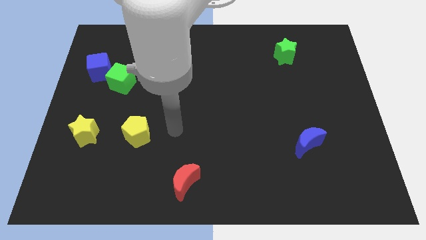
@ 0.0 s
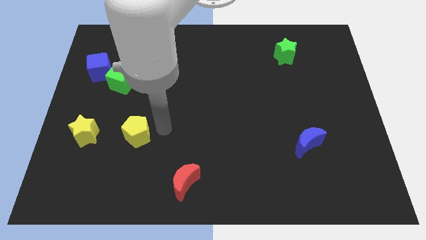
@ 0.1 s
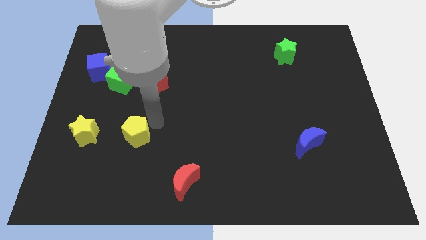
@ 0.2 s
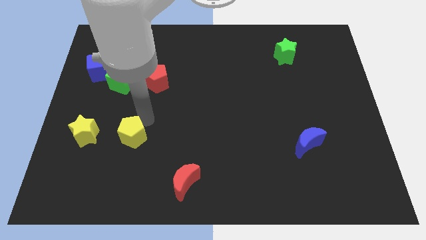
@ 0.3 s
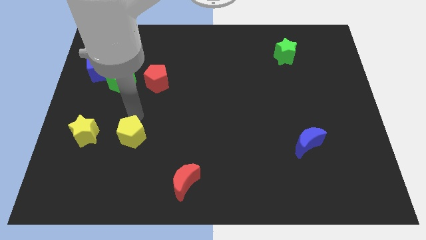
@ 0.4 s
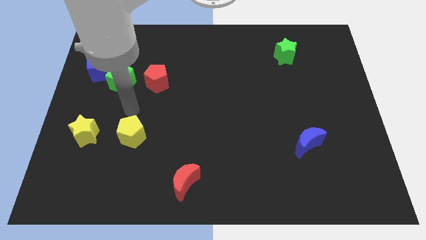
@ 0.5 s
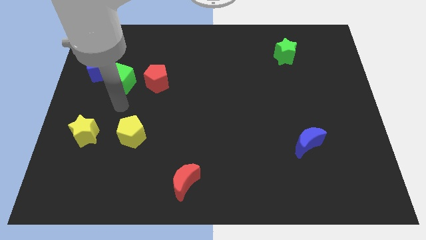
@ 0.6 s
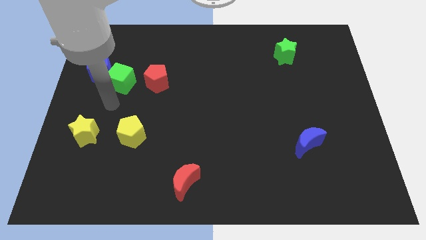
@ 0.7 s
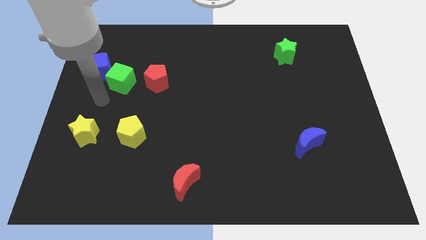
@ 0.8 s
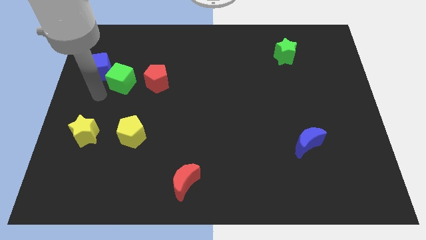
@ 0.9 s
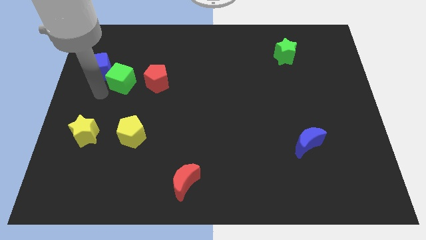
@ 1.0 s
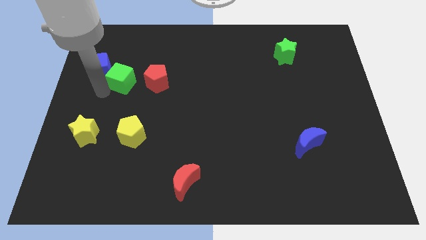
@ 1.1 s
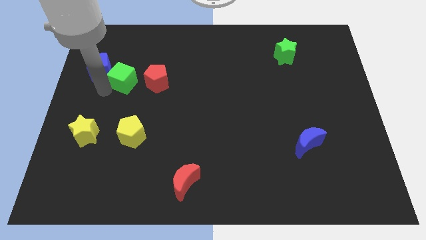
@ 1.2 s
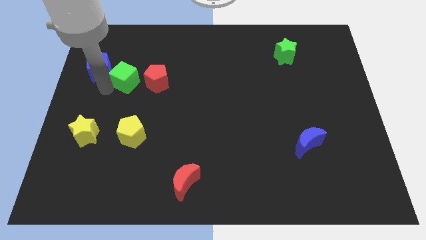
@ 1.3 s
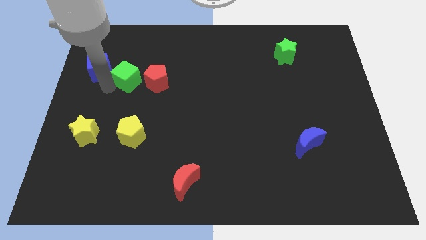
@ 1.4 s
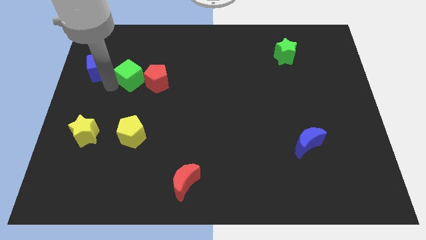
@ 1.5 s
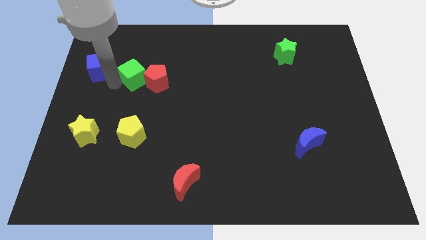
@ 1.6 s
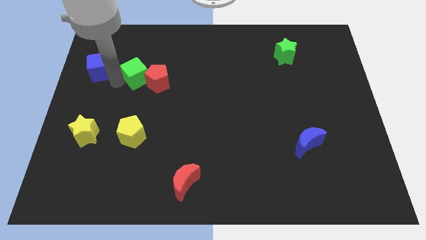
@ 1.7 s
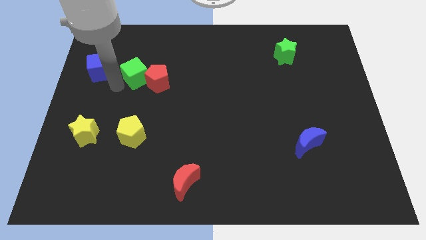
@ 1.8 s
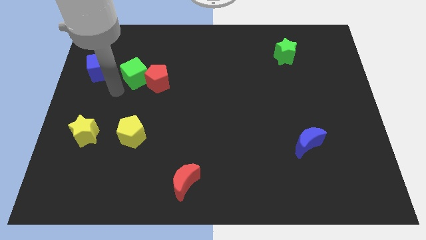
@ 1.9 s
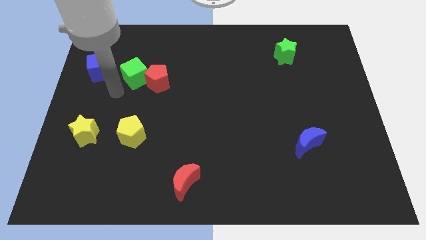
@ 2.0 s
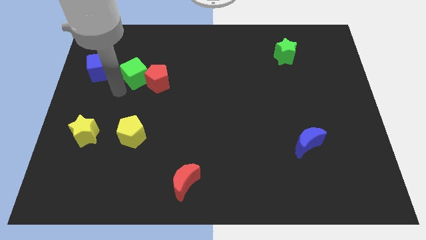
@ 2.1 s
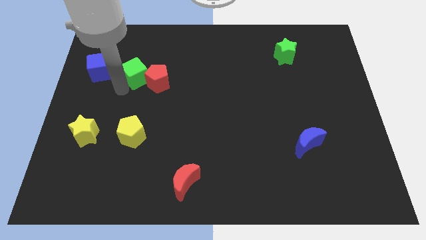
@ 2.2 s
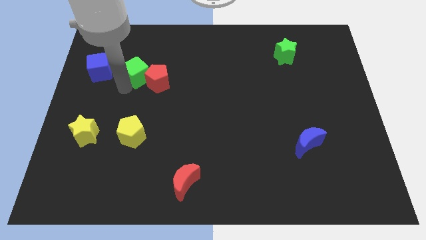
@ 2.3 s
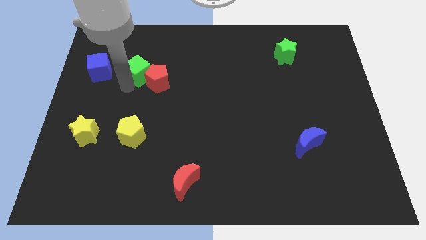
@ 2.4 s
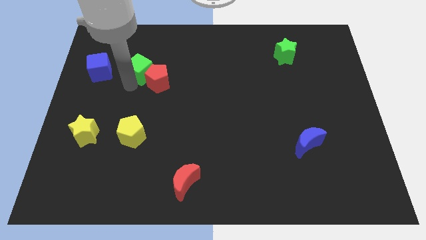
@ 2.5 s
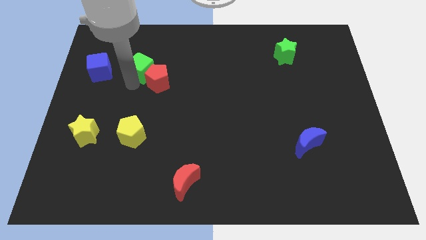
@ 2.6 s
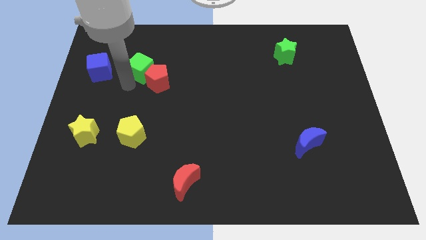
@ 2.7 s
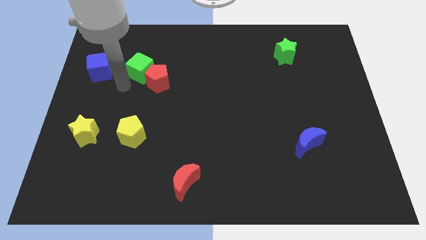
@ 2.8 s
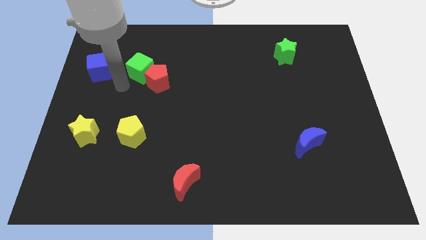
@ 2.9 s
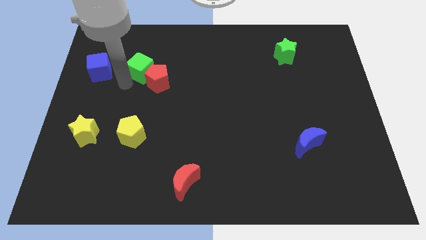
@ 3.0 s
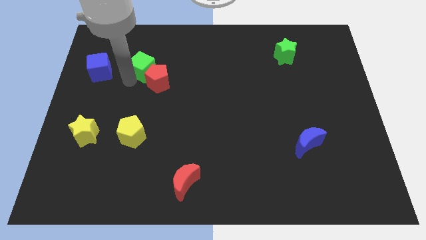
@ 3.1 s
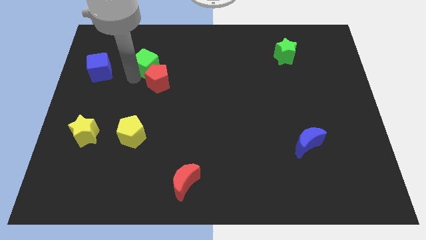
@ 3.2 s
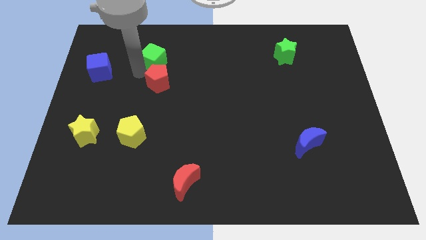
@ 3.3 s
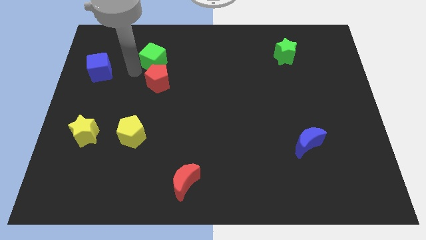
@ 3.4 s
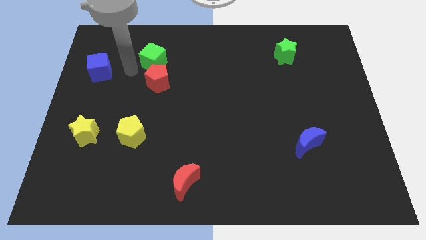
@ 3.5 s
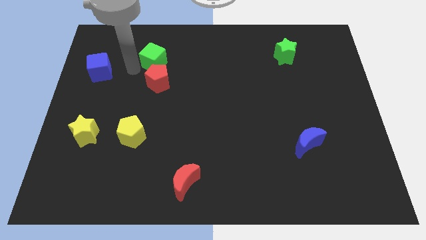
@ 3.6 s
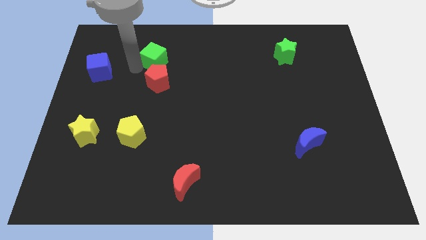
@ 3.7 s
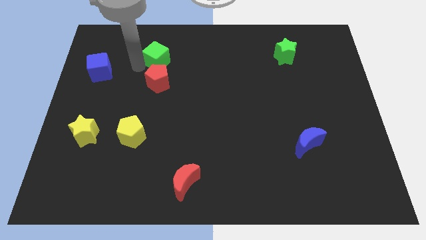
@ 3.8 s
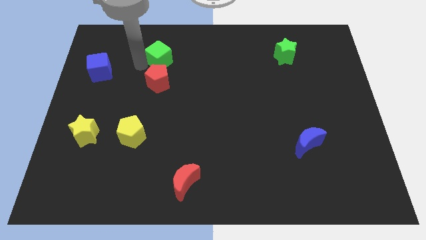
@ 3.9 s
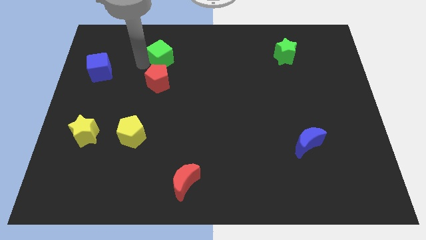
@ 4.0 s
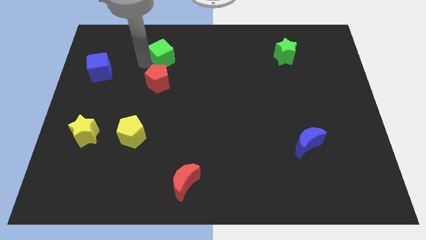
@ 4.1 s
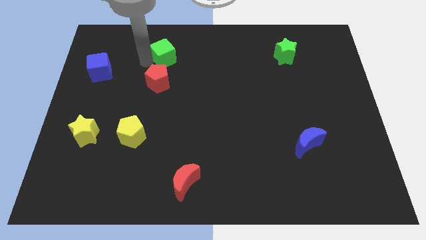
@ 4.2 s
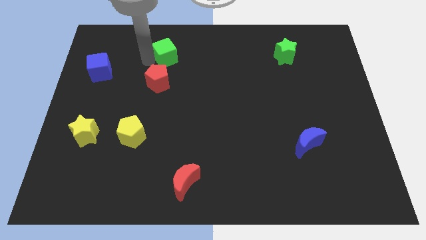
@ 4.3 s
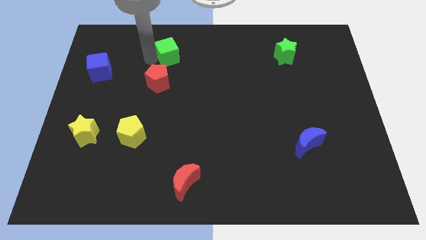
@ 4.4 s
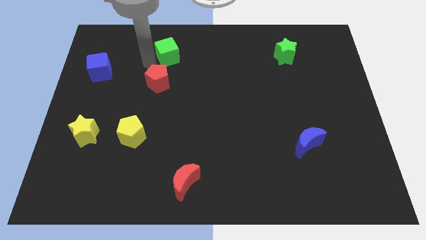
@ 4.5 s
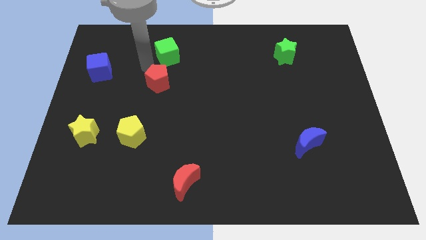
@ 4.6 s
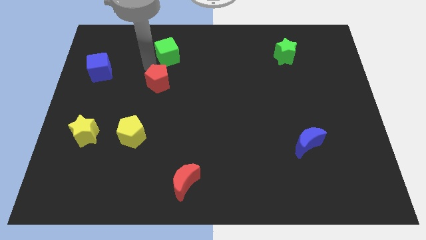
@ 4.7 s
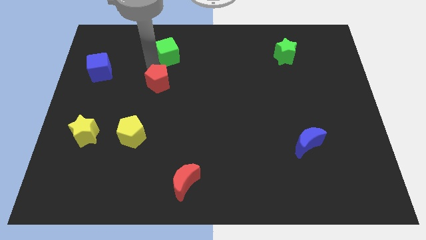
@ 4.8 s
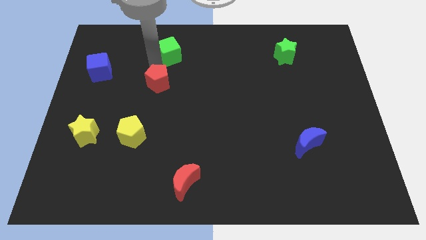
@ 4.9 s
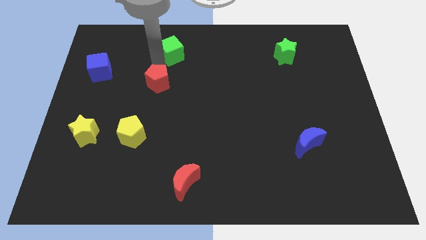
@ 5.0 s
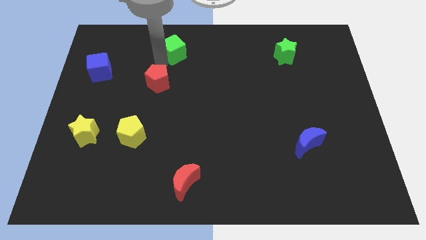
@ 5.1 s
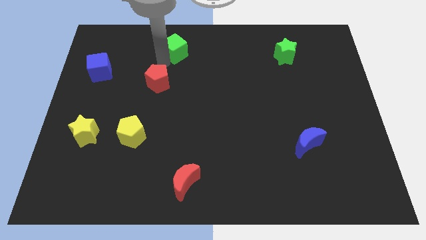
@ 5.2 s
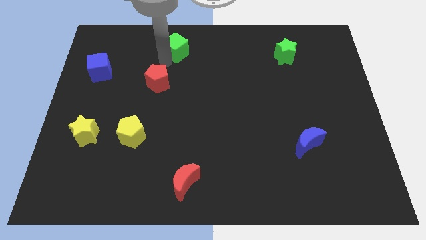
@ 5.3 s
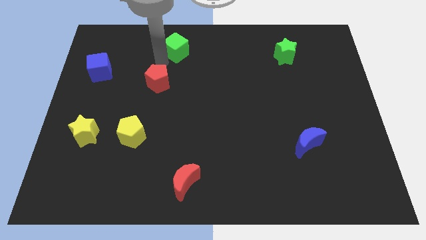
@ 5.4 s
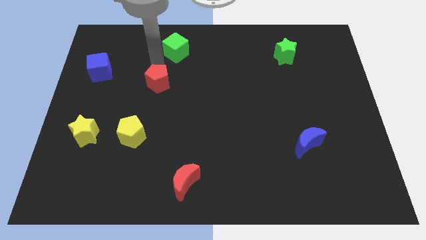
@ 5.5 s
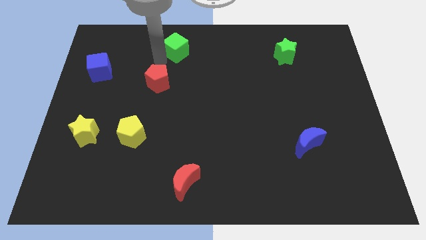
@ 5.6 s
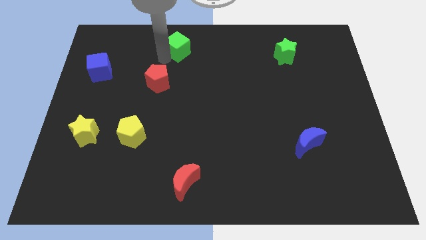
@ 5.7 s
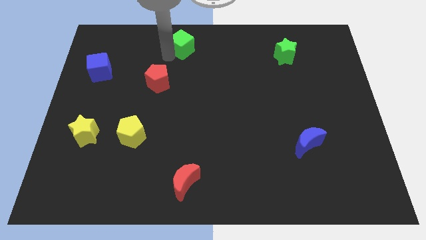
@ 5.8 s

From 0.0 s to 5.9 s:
move the green cube to the top side

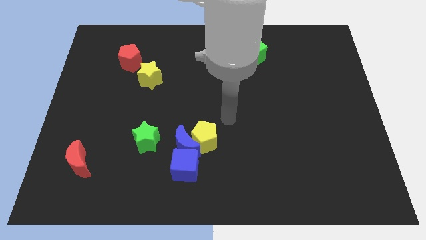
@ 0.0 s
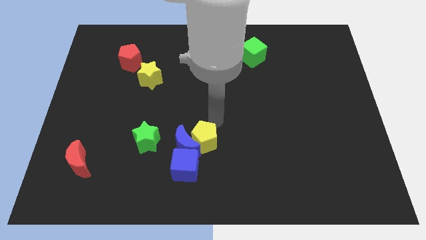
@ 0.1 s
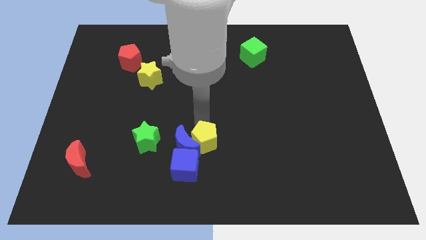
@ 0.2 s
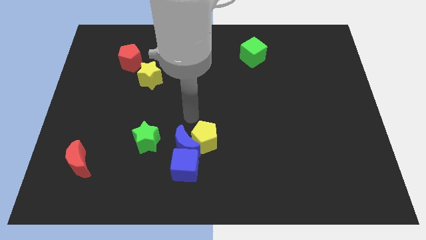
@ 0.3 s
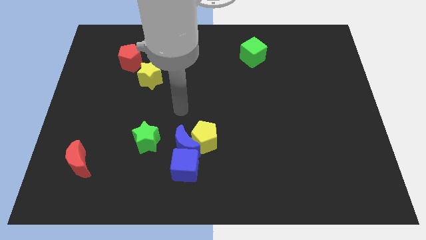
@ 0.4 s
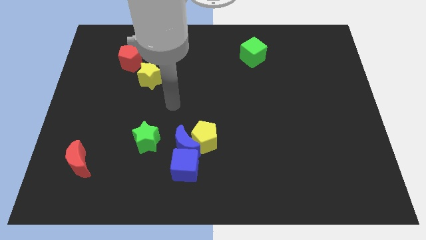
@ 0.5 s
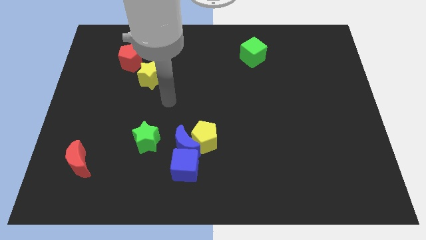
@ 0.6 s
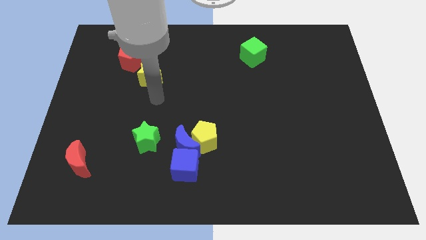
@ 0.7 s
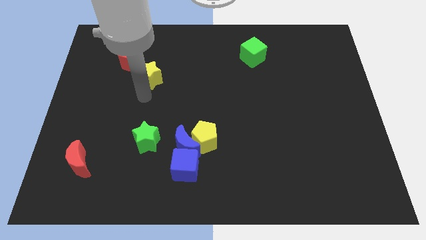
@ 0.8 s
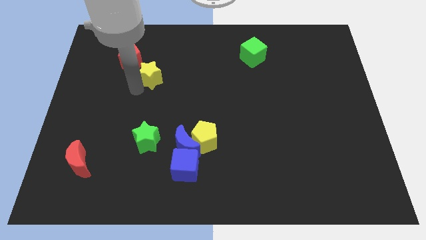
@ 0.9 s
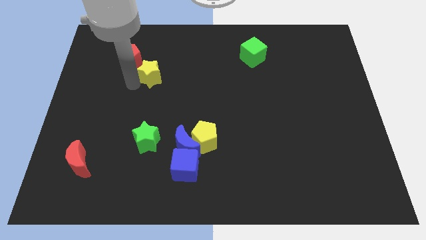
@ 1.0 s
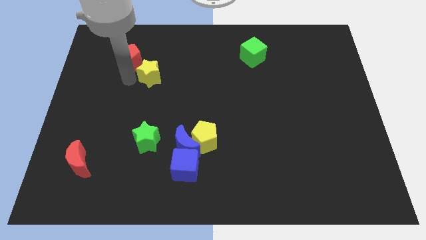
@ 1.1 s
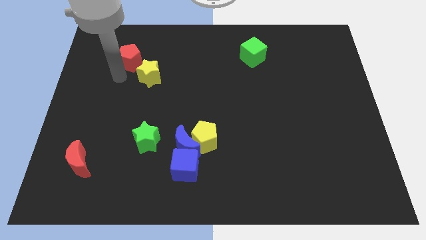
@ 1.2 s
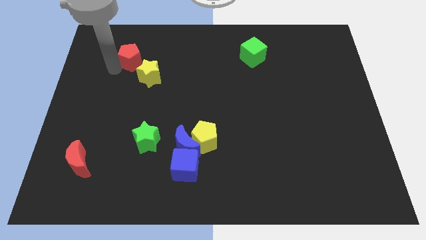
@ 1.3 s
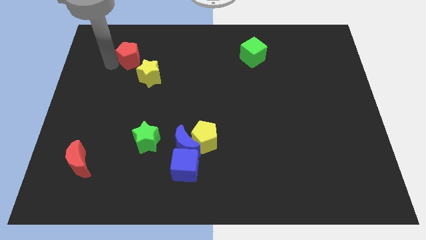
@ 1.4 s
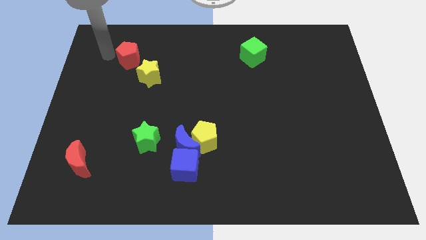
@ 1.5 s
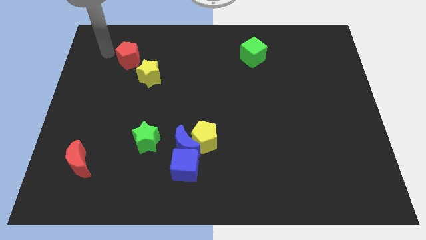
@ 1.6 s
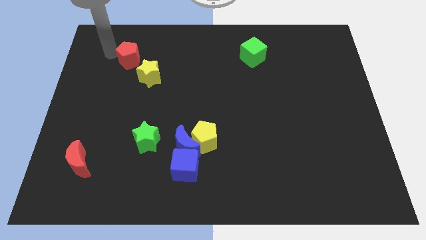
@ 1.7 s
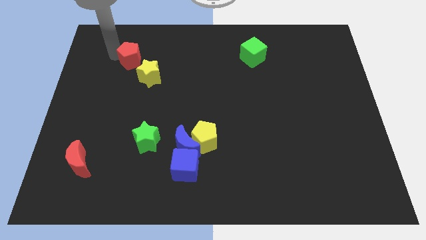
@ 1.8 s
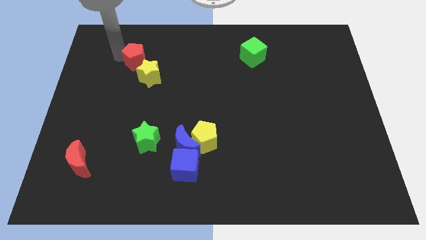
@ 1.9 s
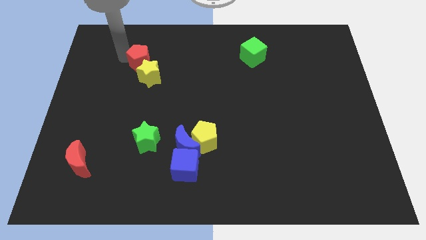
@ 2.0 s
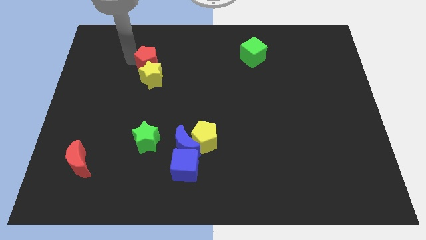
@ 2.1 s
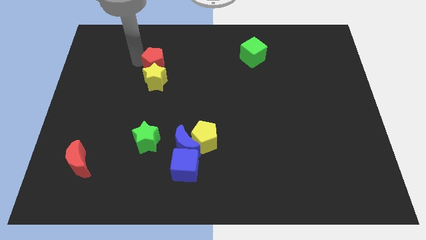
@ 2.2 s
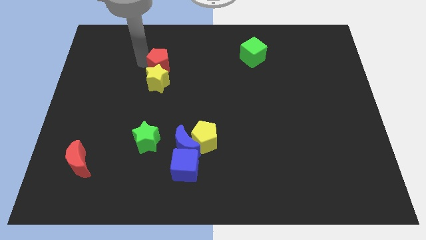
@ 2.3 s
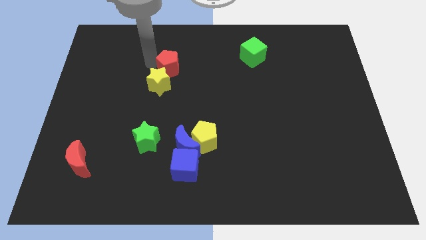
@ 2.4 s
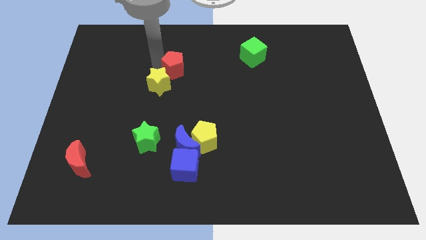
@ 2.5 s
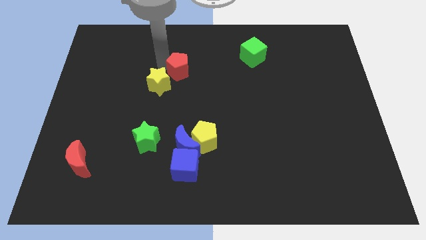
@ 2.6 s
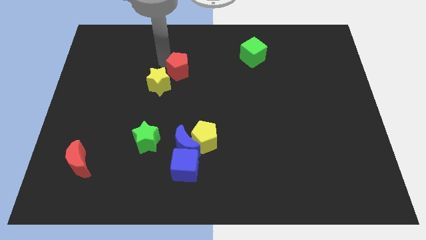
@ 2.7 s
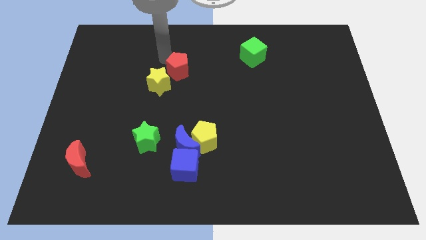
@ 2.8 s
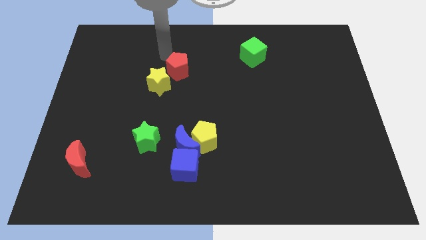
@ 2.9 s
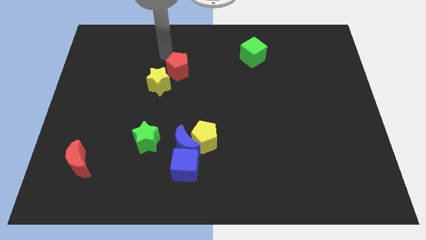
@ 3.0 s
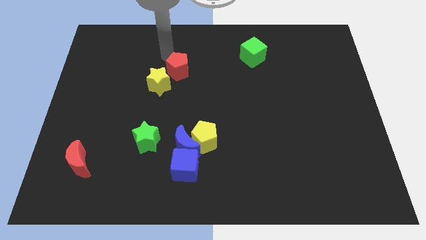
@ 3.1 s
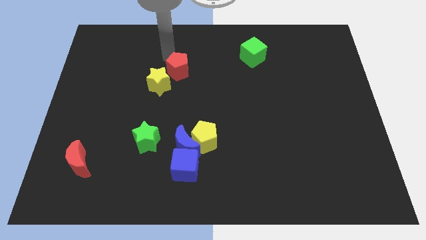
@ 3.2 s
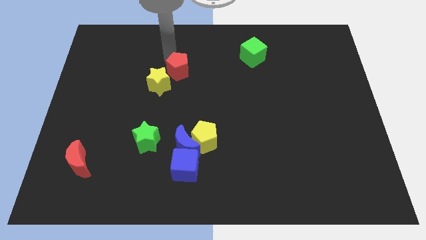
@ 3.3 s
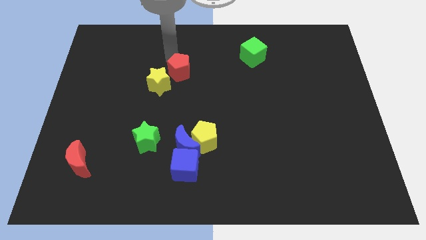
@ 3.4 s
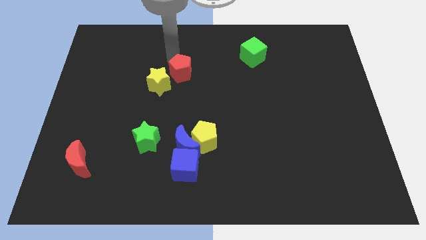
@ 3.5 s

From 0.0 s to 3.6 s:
move the red pentagon to the middle
